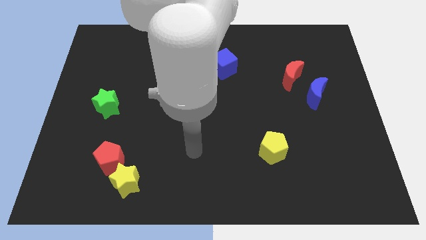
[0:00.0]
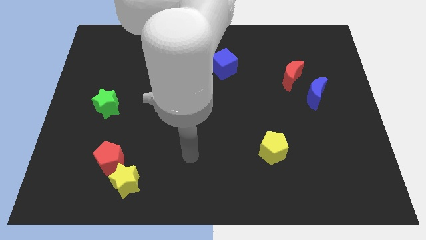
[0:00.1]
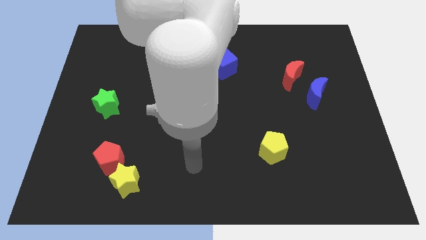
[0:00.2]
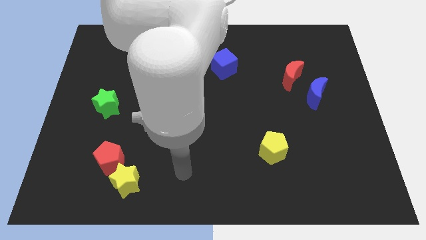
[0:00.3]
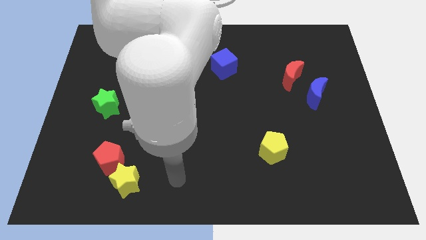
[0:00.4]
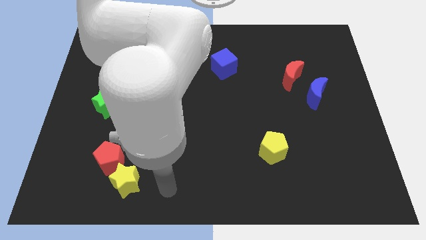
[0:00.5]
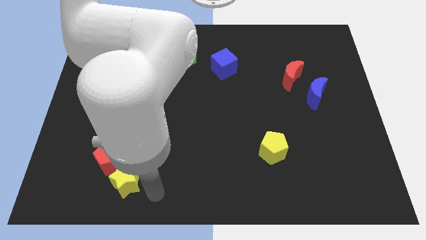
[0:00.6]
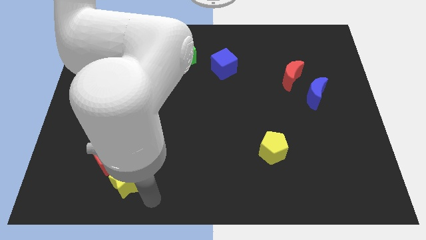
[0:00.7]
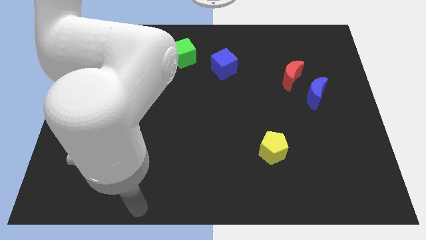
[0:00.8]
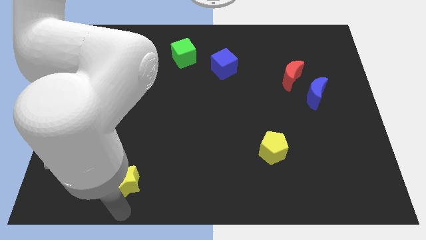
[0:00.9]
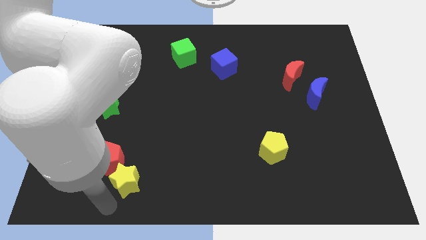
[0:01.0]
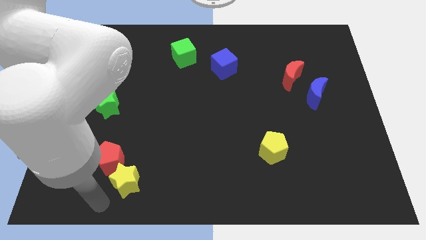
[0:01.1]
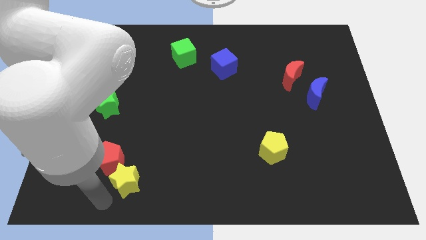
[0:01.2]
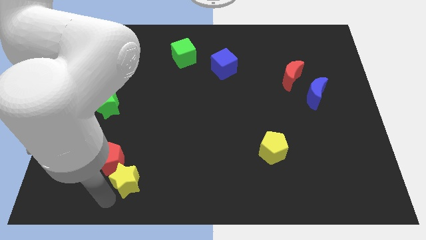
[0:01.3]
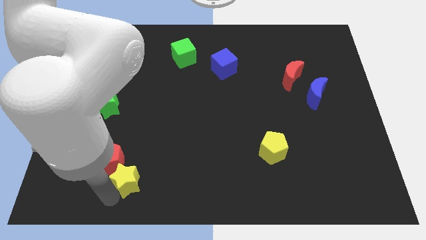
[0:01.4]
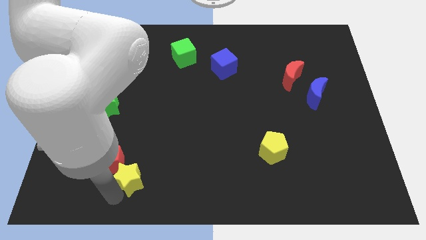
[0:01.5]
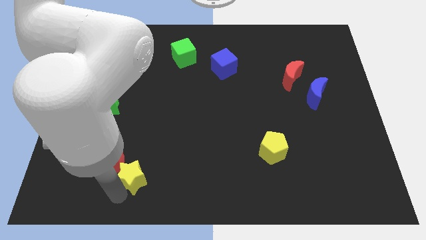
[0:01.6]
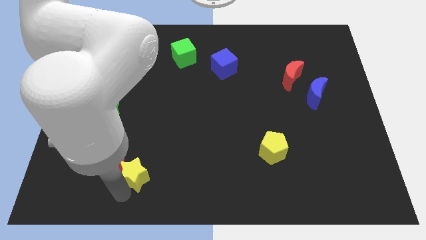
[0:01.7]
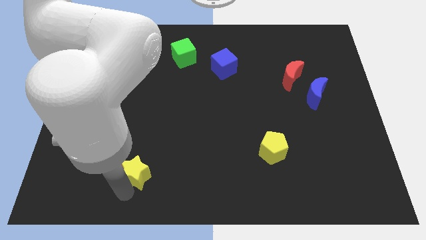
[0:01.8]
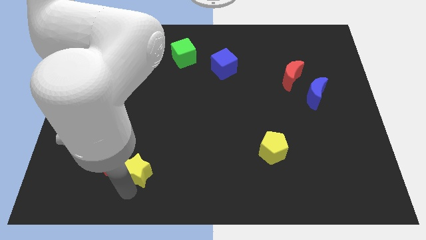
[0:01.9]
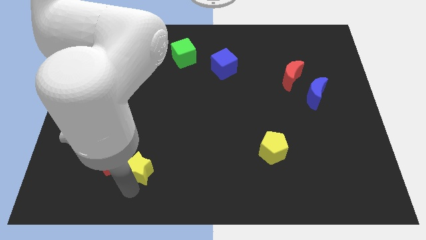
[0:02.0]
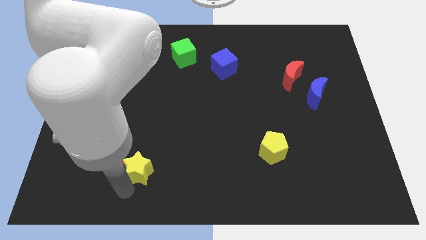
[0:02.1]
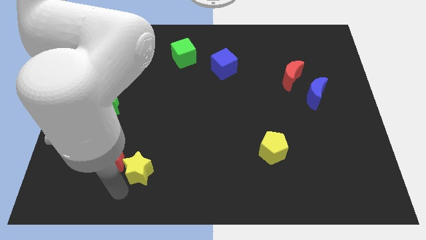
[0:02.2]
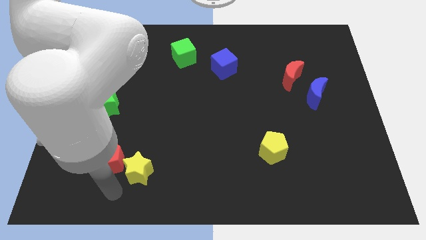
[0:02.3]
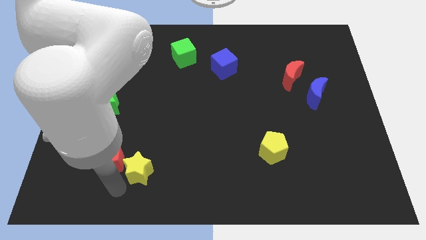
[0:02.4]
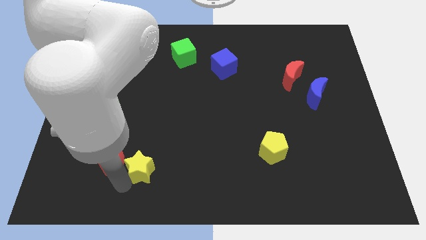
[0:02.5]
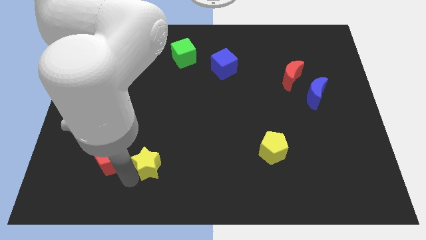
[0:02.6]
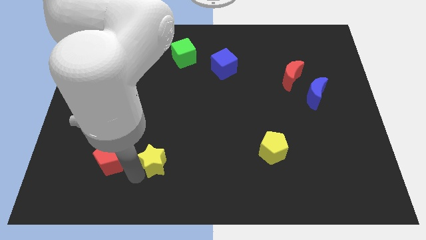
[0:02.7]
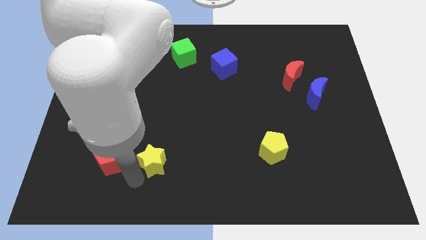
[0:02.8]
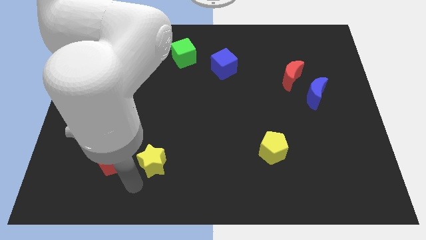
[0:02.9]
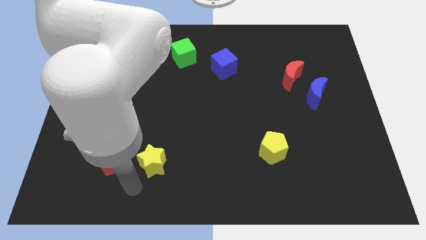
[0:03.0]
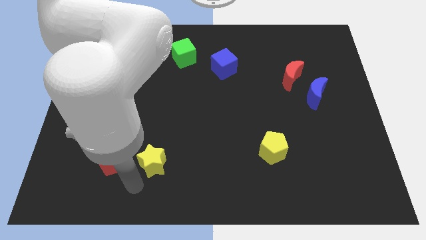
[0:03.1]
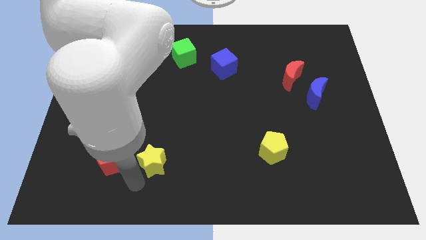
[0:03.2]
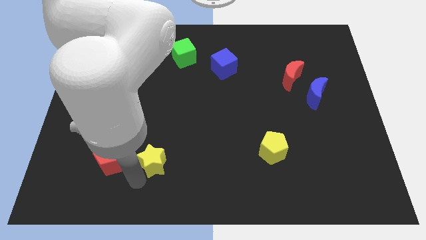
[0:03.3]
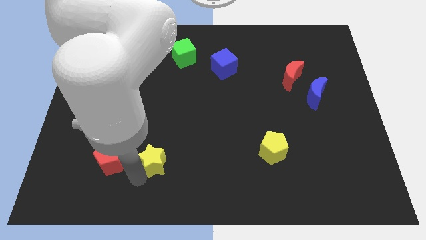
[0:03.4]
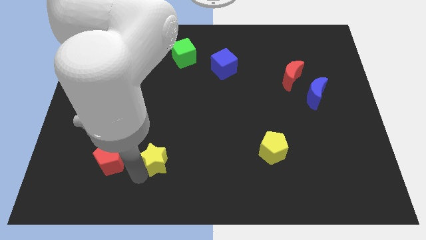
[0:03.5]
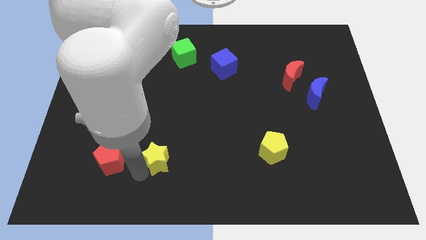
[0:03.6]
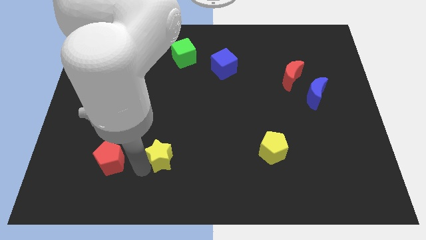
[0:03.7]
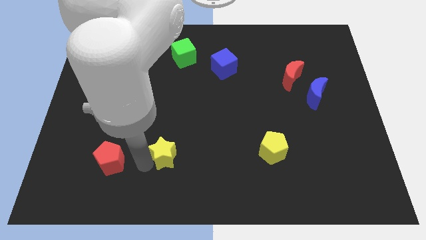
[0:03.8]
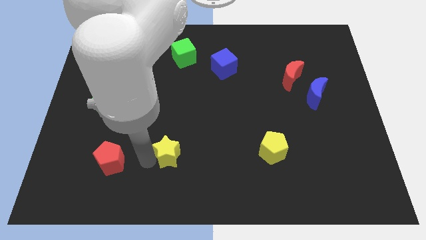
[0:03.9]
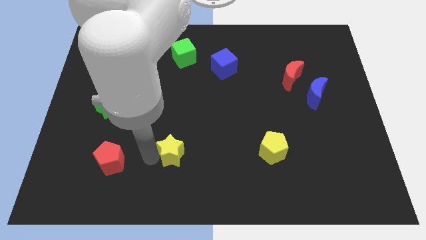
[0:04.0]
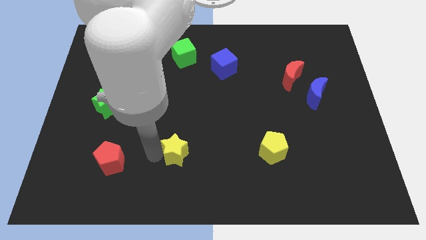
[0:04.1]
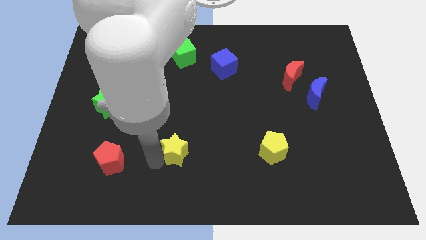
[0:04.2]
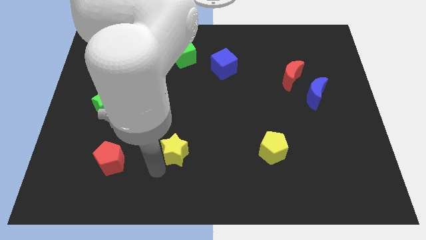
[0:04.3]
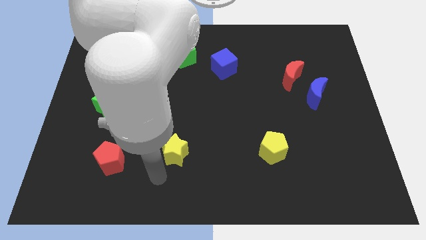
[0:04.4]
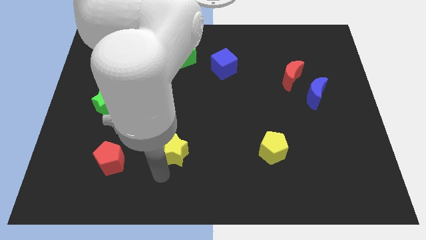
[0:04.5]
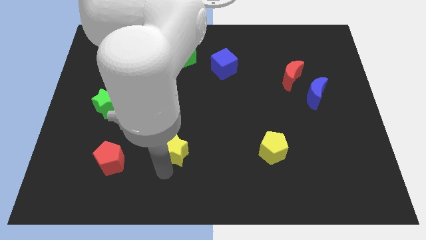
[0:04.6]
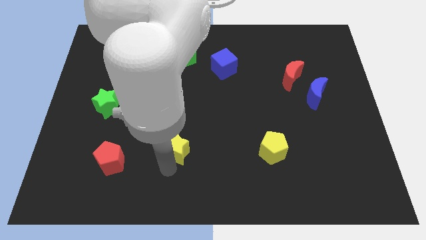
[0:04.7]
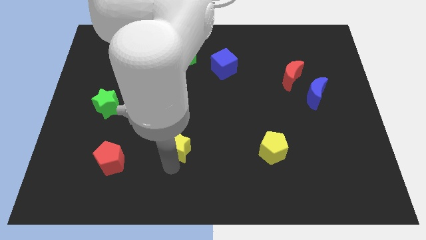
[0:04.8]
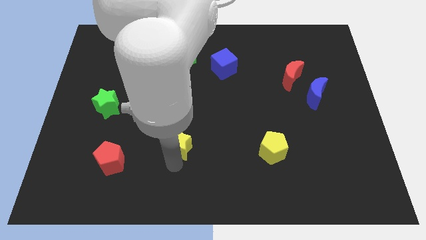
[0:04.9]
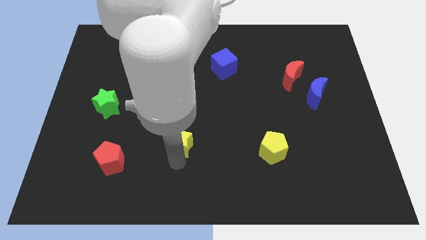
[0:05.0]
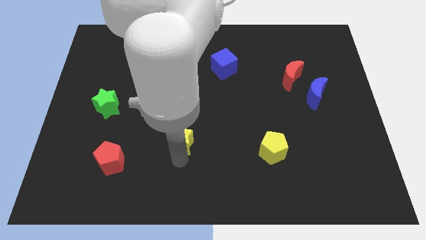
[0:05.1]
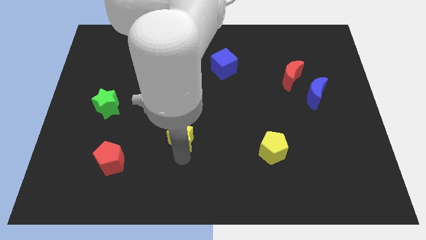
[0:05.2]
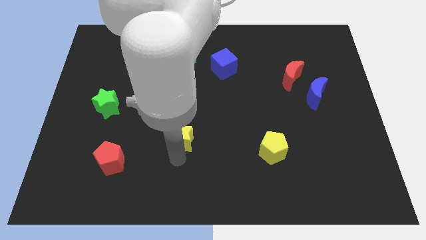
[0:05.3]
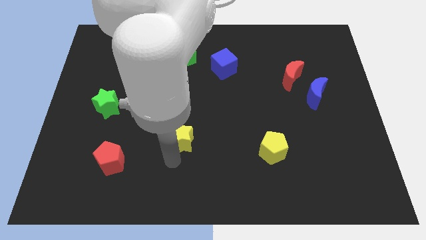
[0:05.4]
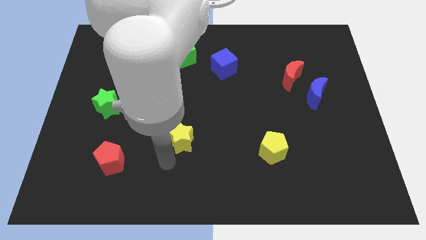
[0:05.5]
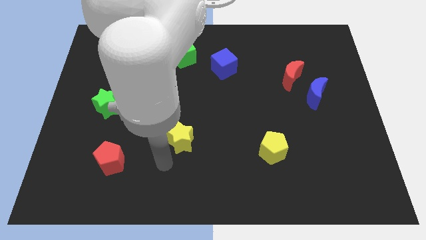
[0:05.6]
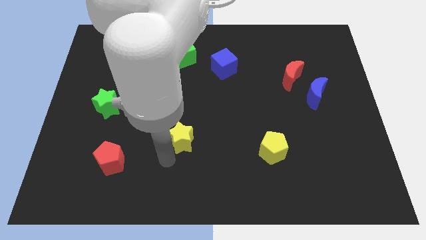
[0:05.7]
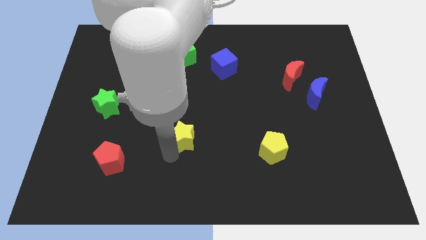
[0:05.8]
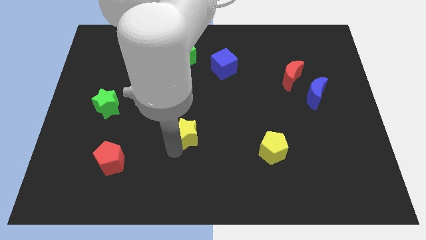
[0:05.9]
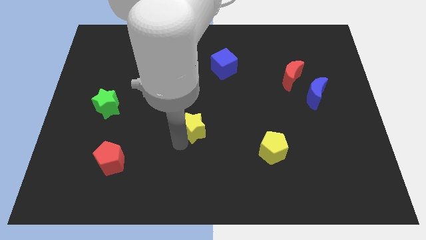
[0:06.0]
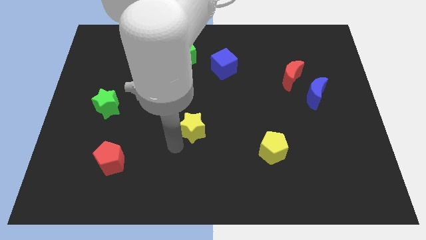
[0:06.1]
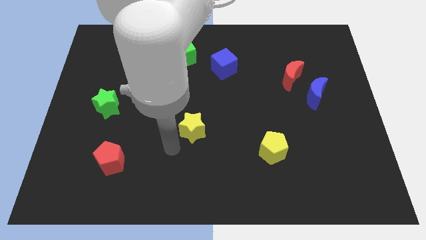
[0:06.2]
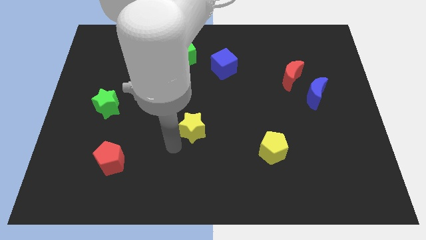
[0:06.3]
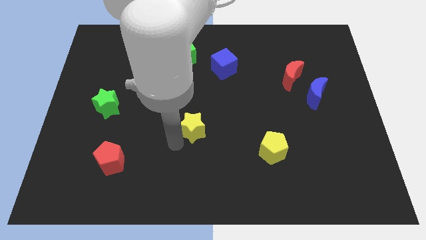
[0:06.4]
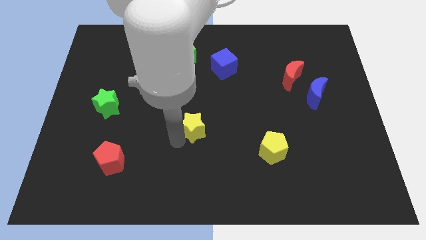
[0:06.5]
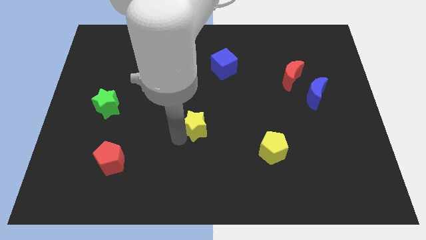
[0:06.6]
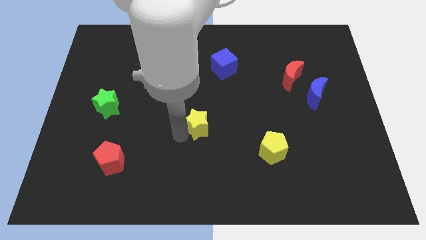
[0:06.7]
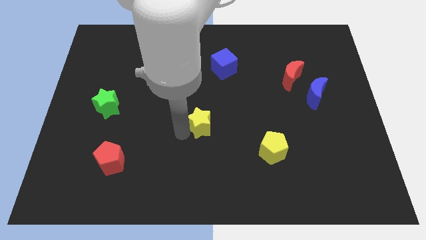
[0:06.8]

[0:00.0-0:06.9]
move the yellow star upwards and to the right diagonally

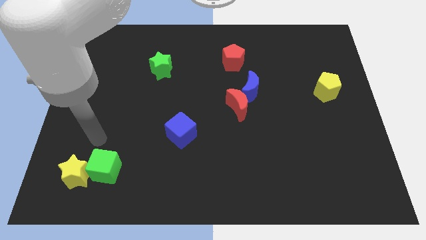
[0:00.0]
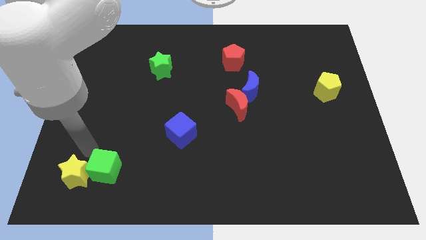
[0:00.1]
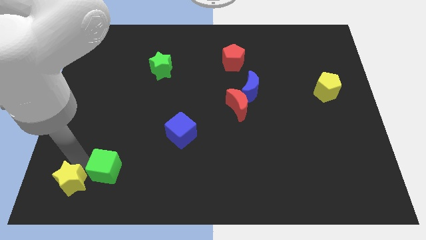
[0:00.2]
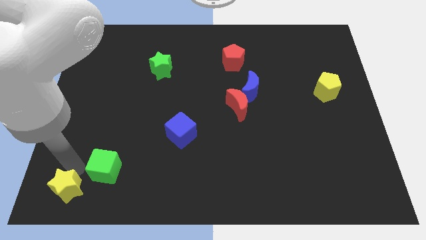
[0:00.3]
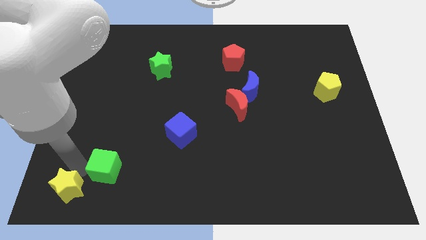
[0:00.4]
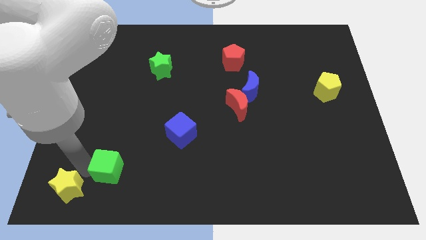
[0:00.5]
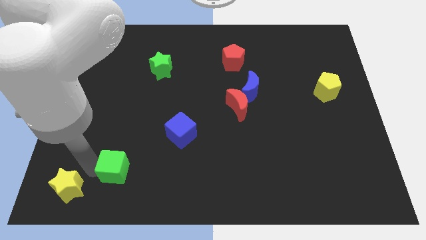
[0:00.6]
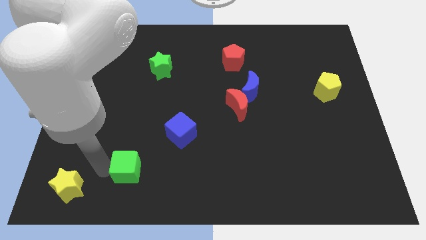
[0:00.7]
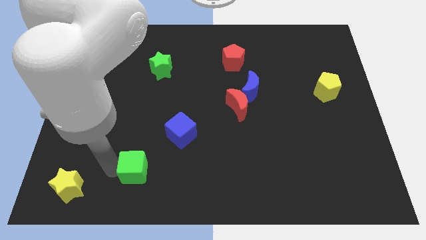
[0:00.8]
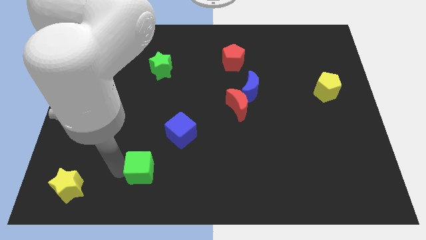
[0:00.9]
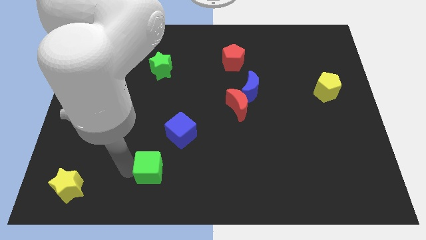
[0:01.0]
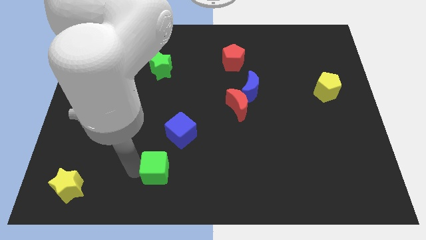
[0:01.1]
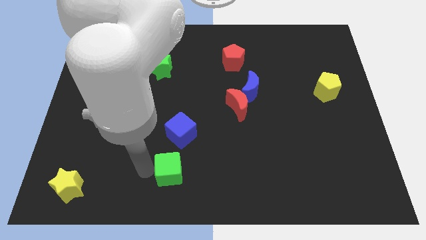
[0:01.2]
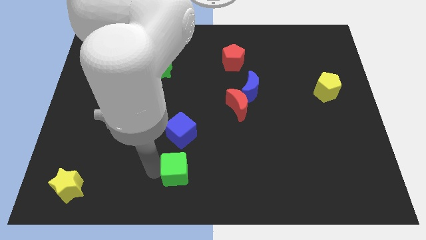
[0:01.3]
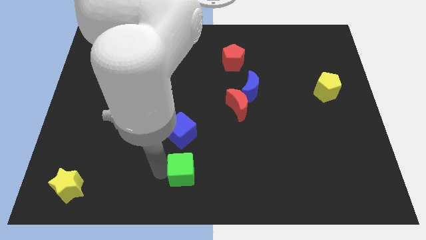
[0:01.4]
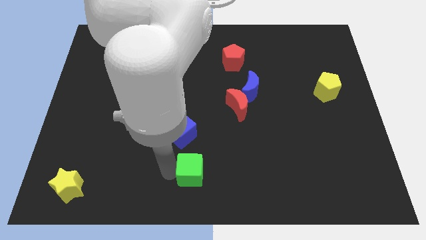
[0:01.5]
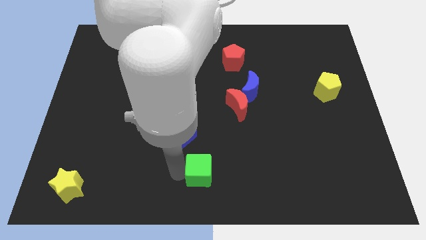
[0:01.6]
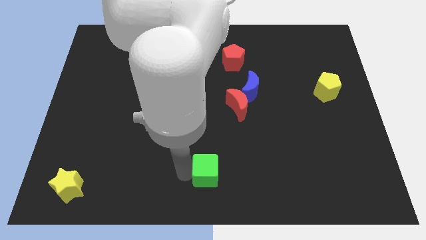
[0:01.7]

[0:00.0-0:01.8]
move the green cube to the right
